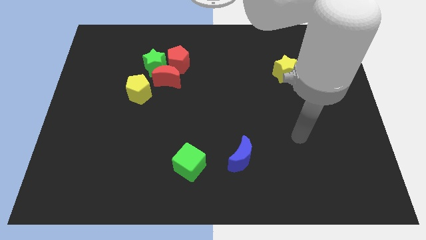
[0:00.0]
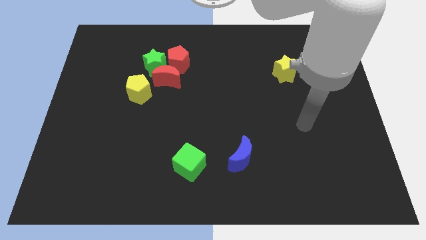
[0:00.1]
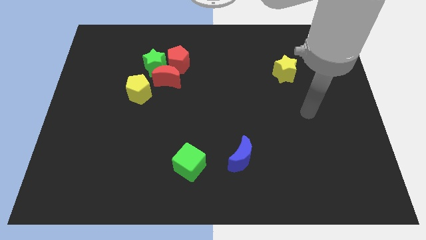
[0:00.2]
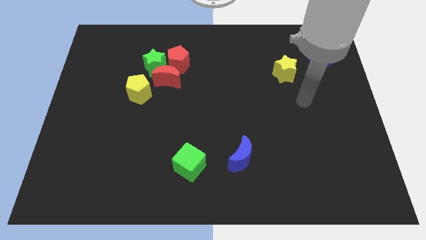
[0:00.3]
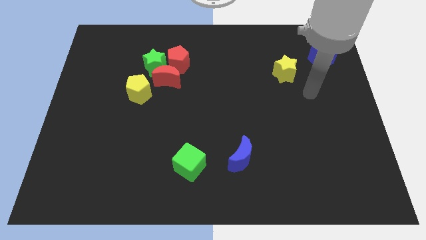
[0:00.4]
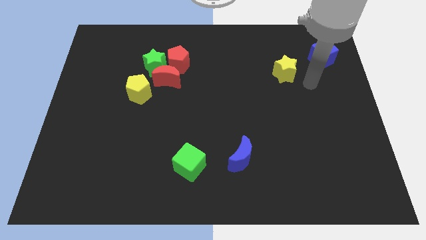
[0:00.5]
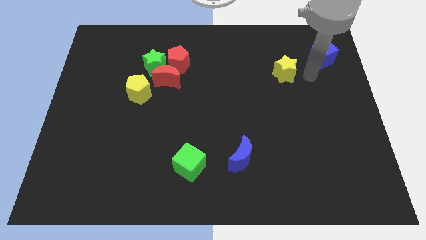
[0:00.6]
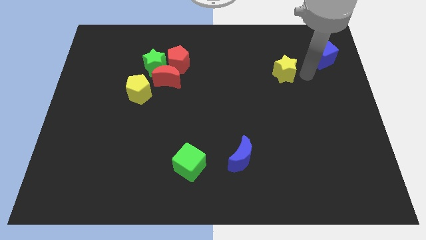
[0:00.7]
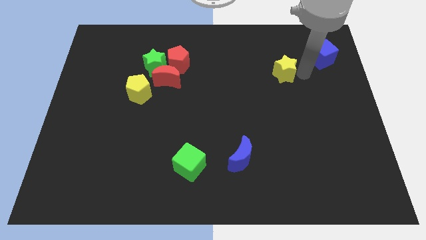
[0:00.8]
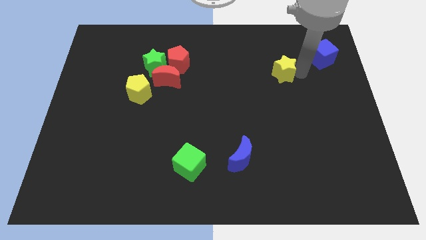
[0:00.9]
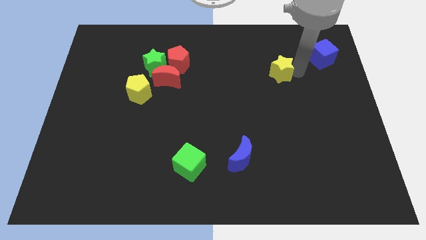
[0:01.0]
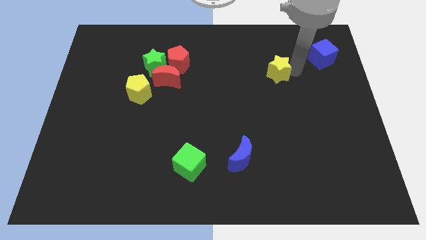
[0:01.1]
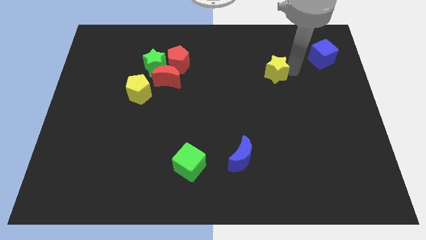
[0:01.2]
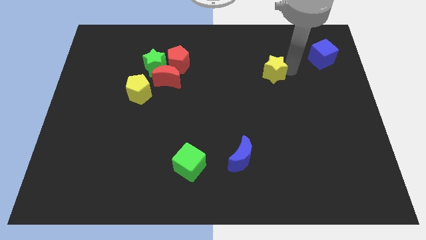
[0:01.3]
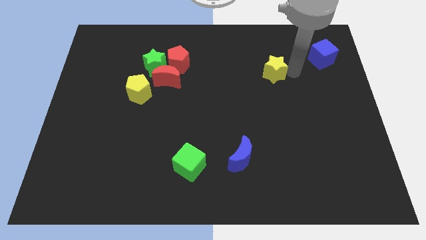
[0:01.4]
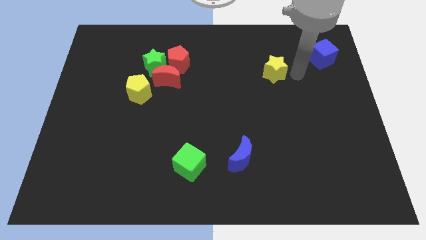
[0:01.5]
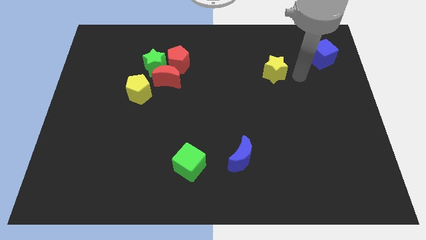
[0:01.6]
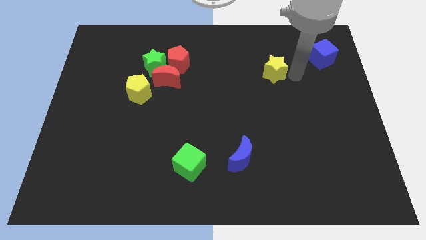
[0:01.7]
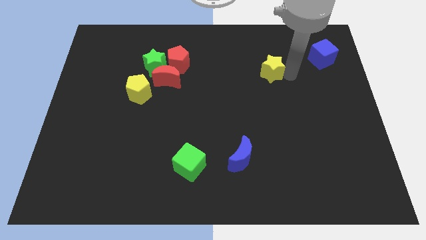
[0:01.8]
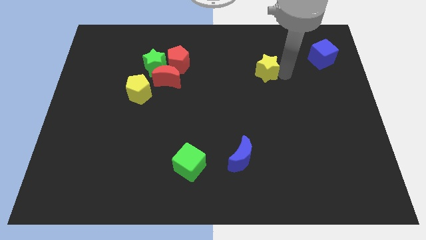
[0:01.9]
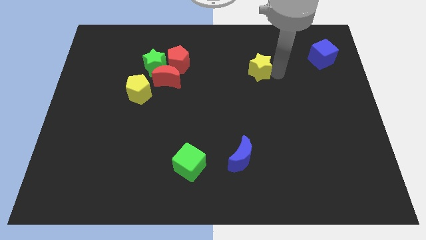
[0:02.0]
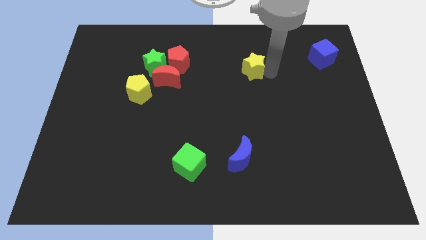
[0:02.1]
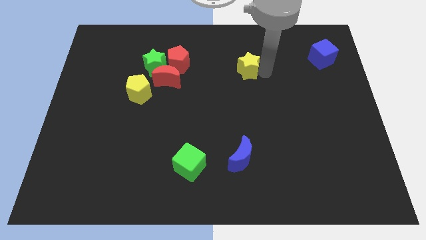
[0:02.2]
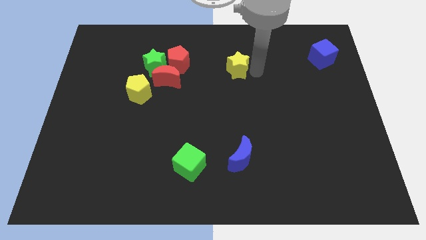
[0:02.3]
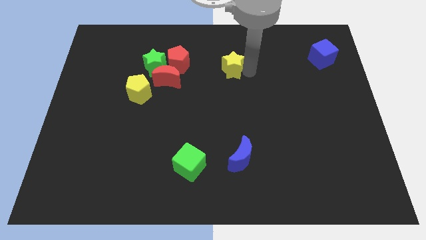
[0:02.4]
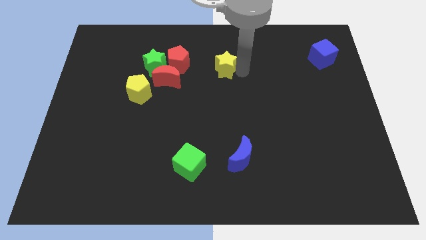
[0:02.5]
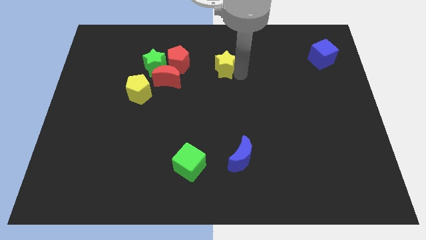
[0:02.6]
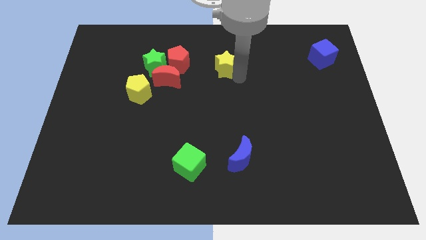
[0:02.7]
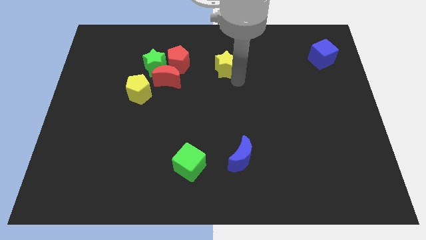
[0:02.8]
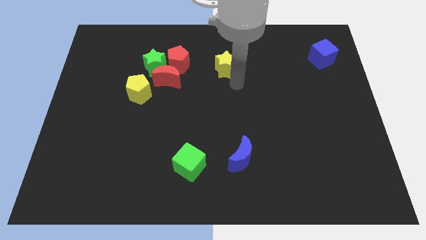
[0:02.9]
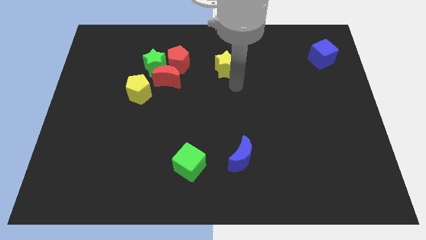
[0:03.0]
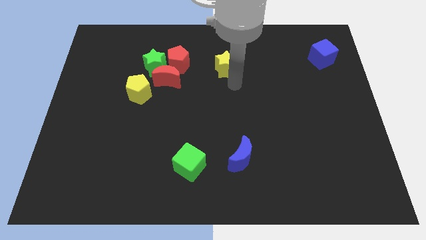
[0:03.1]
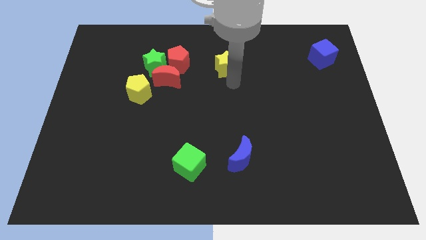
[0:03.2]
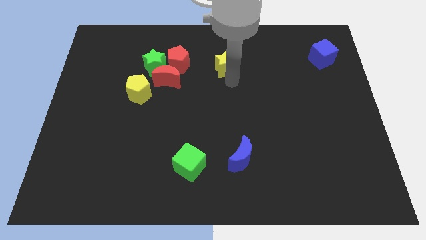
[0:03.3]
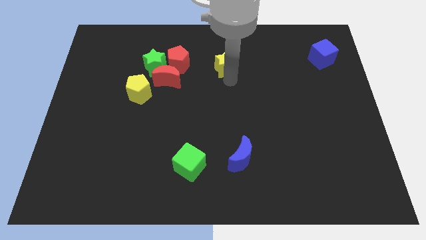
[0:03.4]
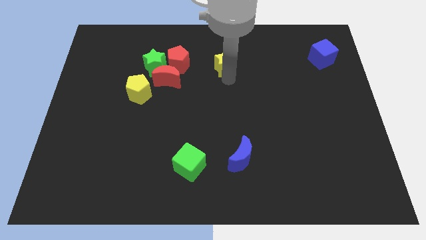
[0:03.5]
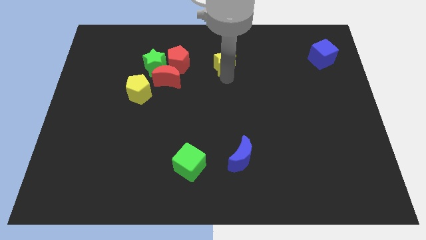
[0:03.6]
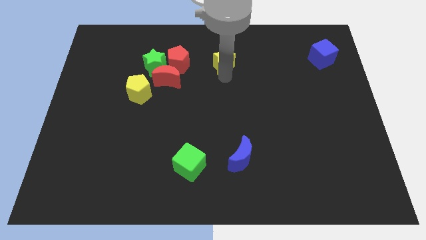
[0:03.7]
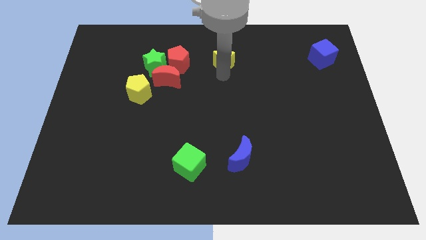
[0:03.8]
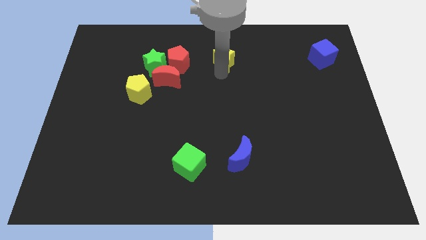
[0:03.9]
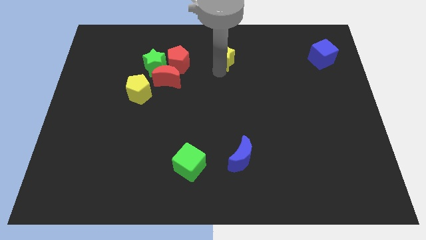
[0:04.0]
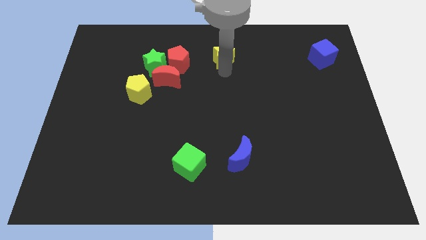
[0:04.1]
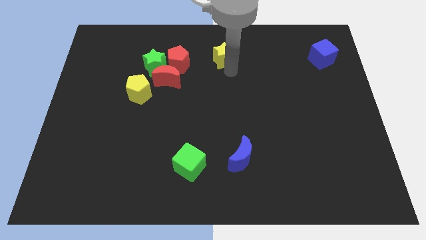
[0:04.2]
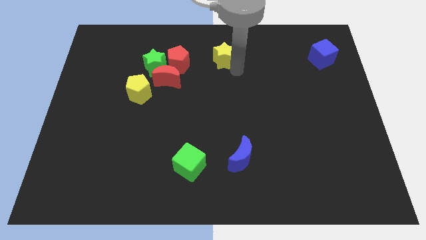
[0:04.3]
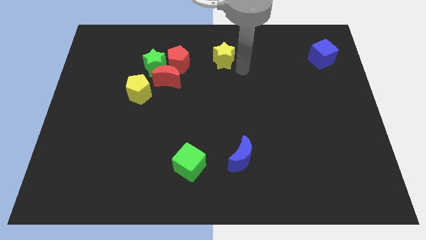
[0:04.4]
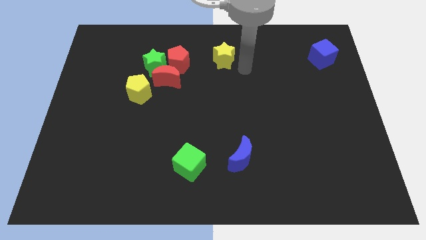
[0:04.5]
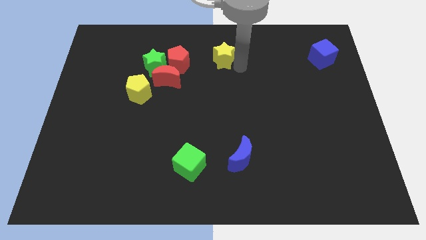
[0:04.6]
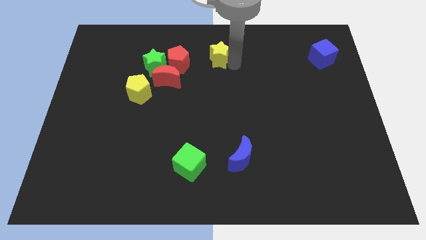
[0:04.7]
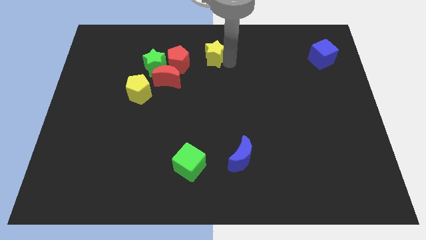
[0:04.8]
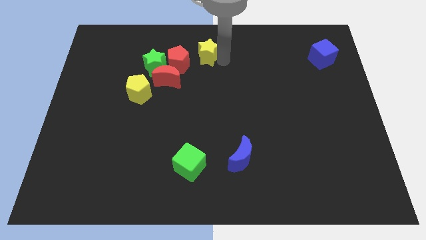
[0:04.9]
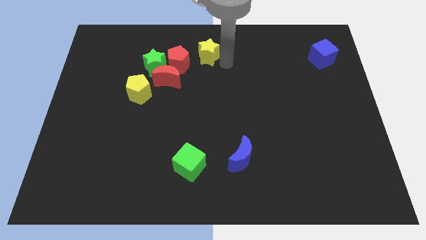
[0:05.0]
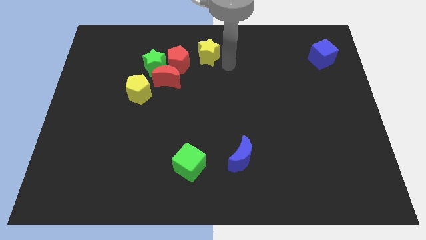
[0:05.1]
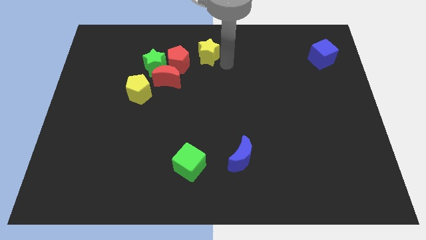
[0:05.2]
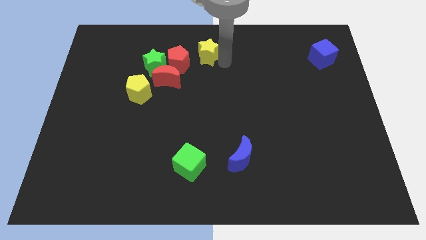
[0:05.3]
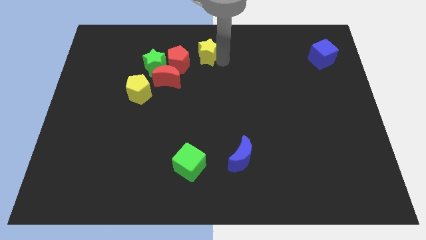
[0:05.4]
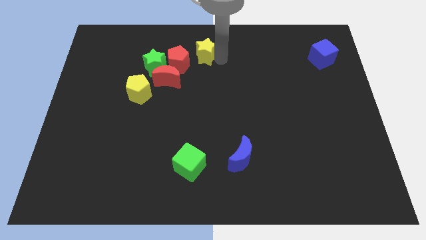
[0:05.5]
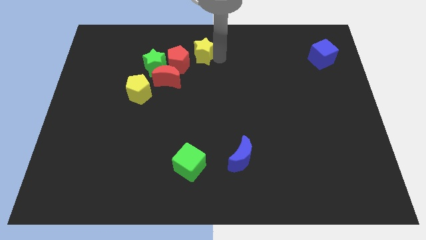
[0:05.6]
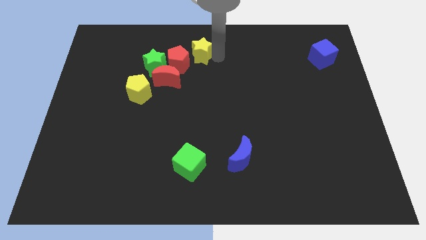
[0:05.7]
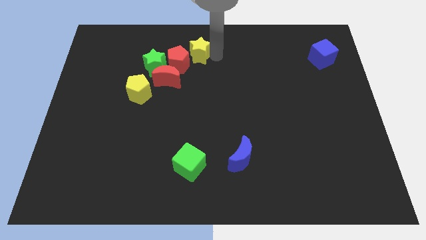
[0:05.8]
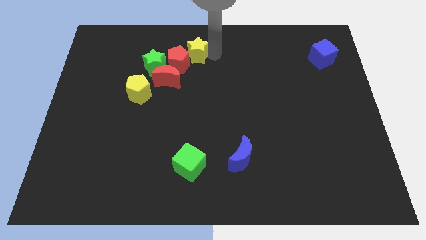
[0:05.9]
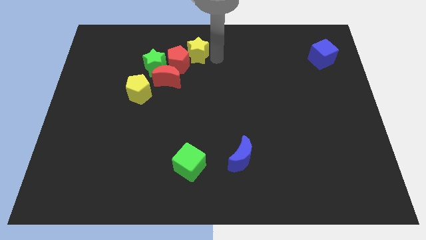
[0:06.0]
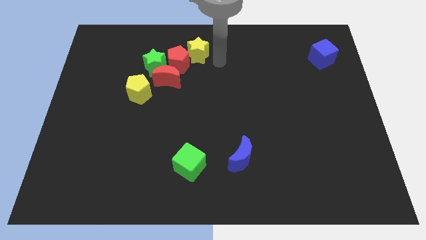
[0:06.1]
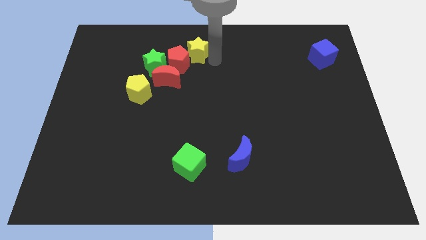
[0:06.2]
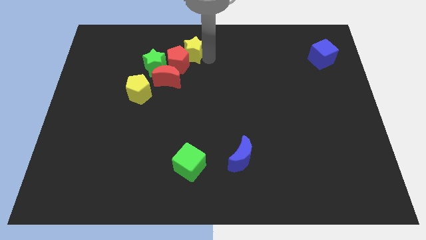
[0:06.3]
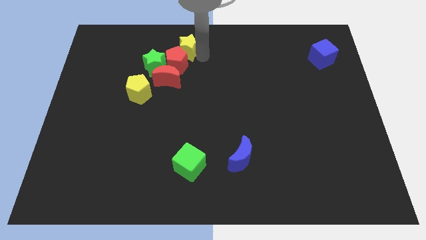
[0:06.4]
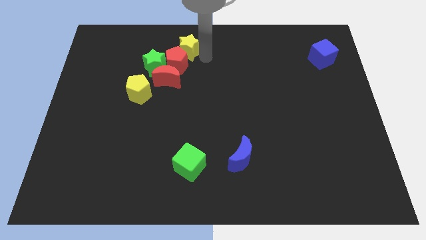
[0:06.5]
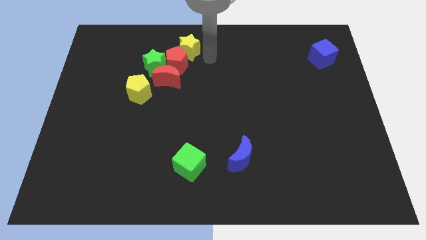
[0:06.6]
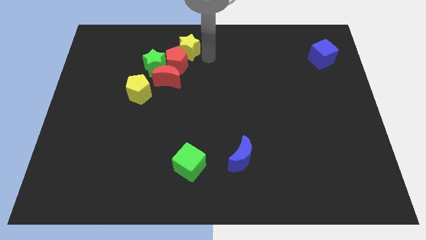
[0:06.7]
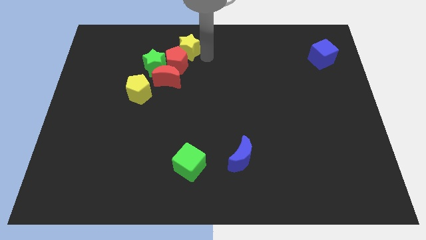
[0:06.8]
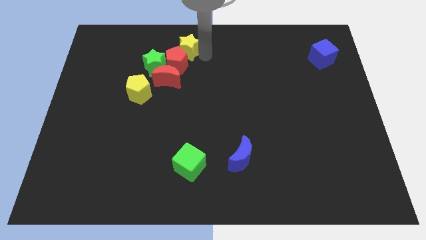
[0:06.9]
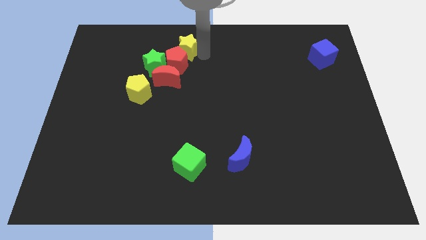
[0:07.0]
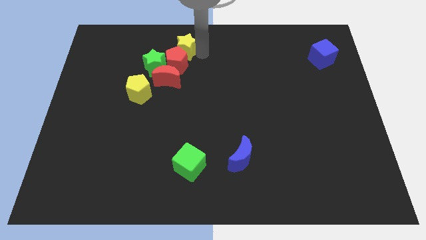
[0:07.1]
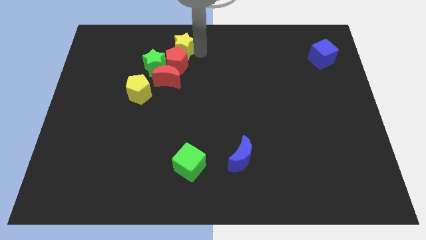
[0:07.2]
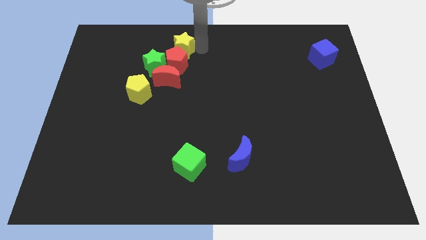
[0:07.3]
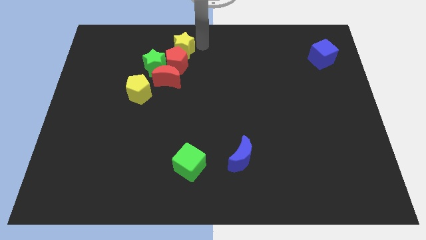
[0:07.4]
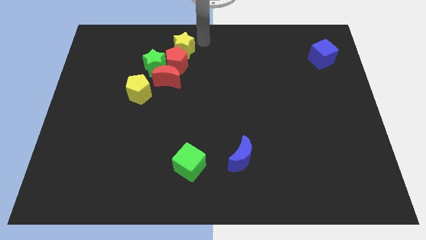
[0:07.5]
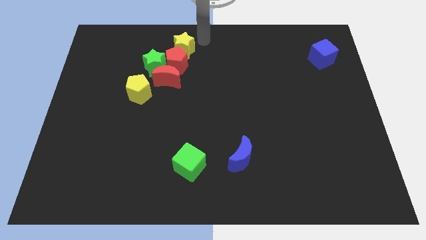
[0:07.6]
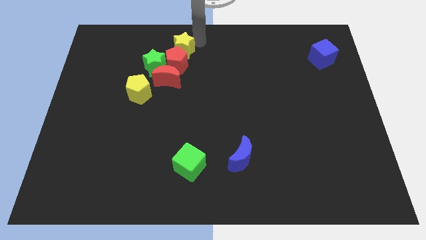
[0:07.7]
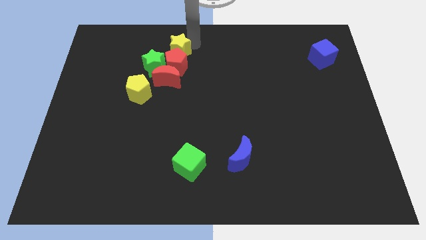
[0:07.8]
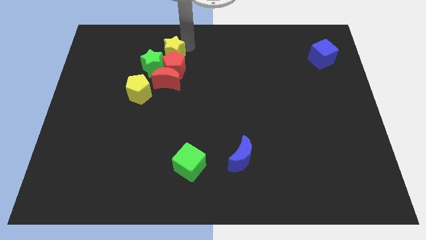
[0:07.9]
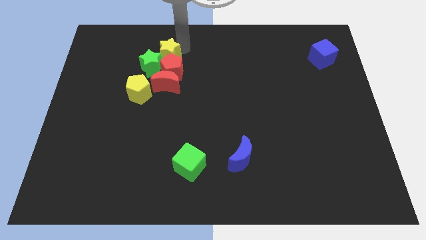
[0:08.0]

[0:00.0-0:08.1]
push the yellow star towards the green star
